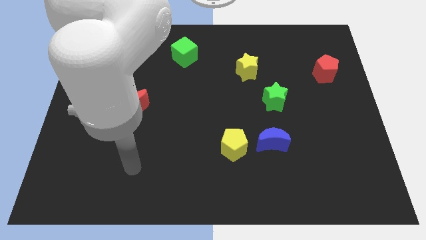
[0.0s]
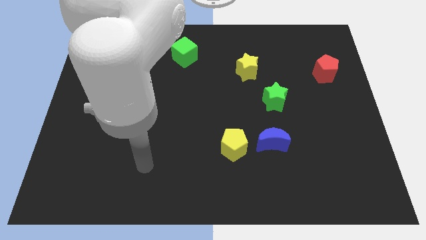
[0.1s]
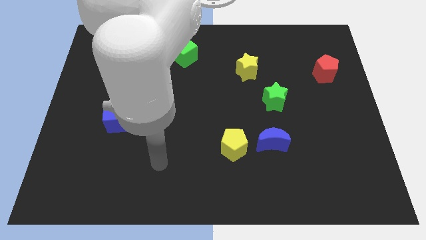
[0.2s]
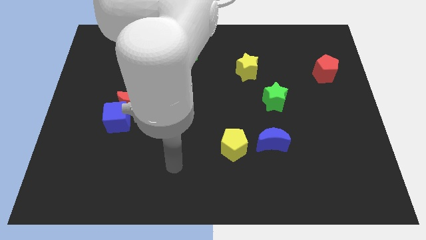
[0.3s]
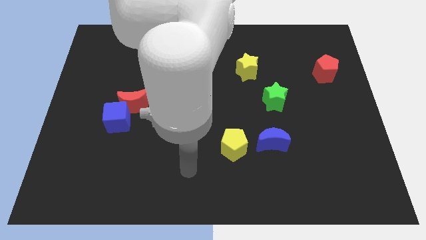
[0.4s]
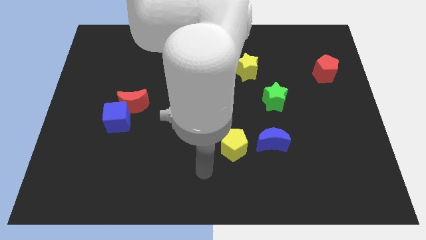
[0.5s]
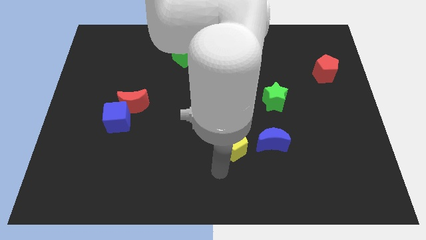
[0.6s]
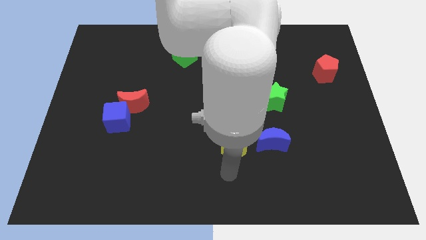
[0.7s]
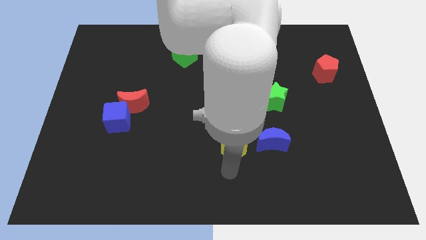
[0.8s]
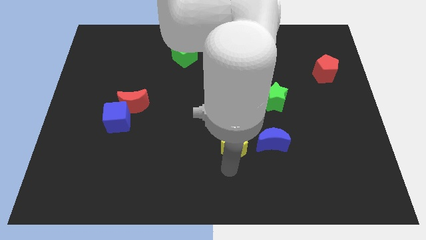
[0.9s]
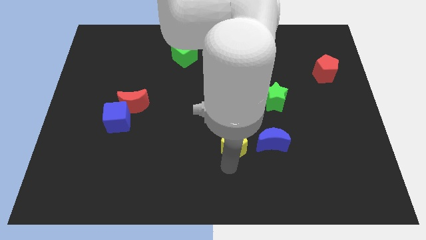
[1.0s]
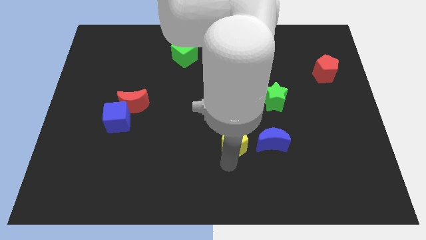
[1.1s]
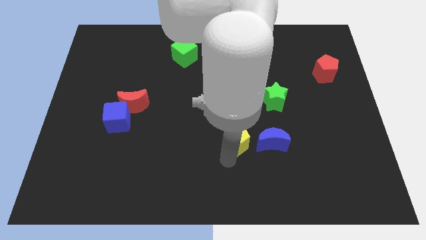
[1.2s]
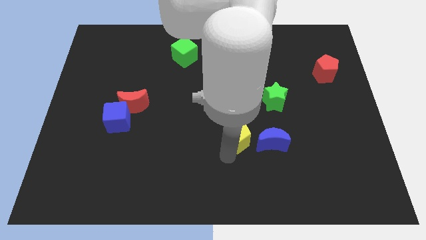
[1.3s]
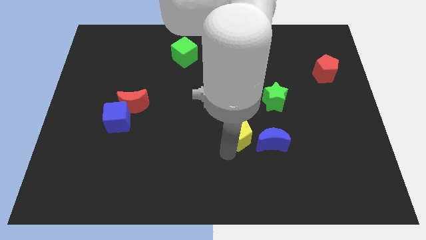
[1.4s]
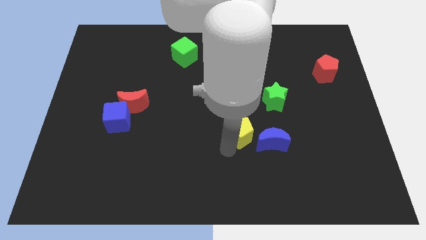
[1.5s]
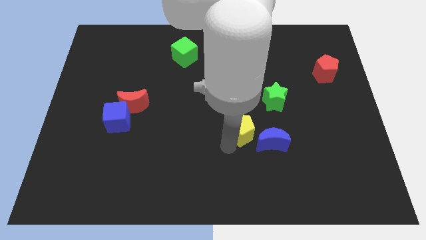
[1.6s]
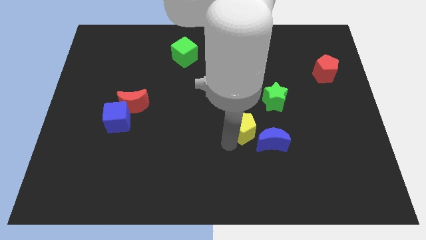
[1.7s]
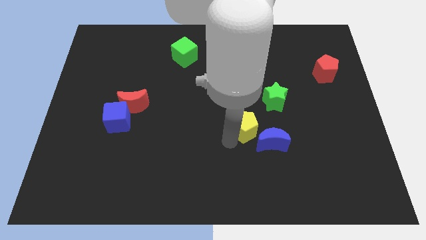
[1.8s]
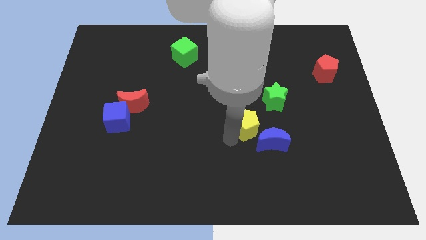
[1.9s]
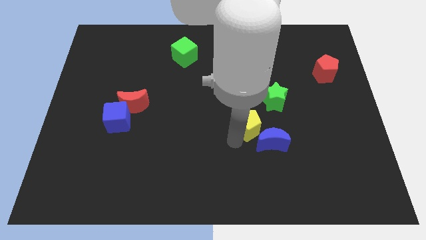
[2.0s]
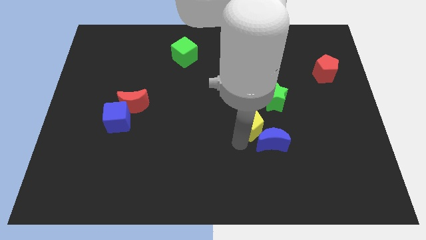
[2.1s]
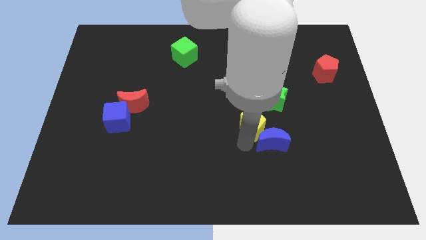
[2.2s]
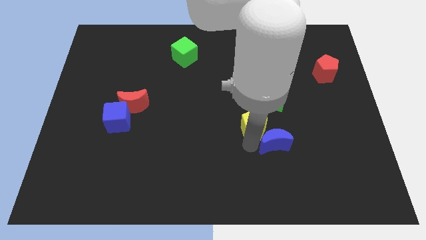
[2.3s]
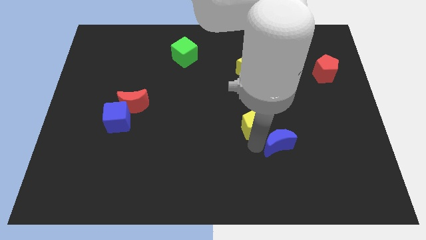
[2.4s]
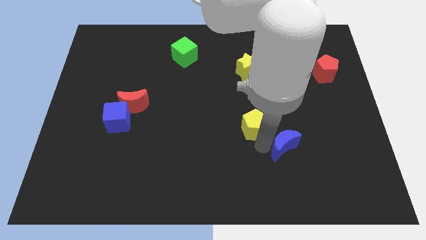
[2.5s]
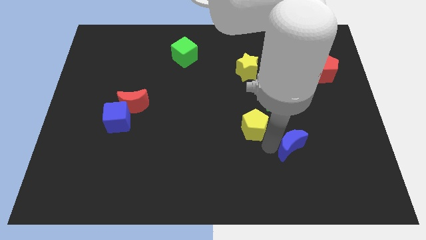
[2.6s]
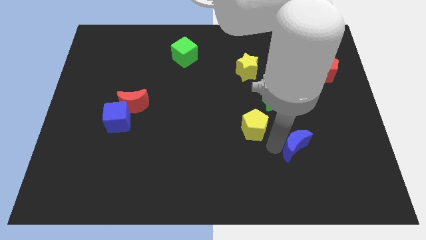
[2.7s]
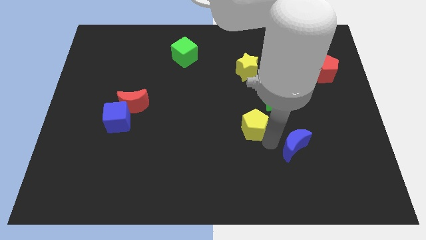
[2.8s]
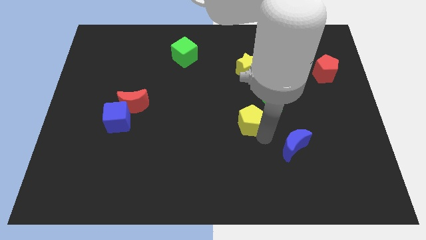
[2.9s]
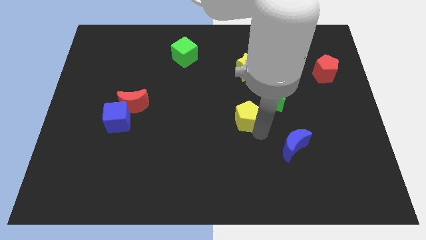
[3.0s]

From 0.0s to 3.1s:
move the yellow pentagon somewhat upwards

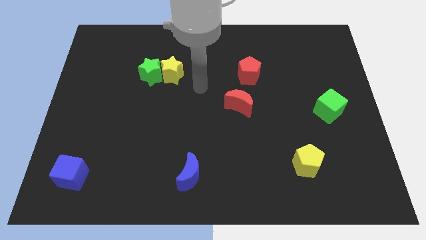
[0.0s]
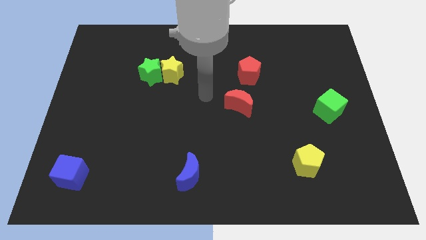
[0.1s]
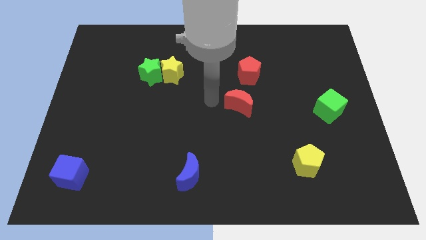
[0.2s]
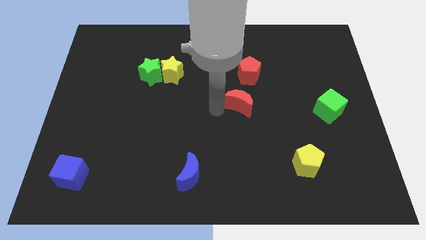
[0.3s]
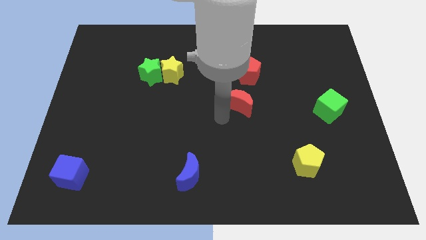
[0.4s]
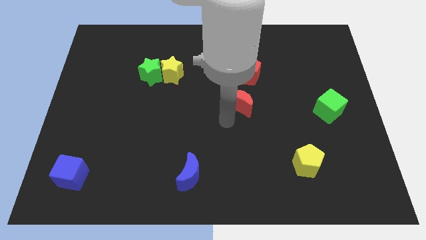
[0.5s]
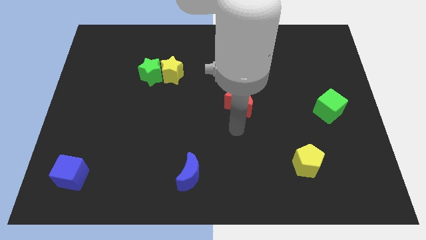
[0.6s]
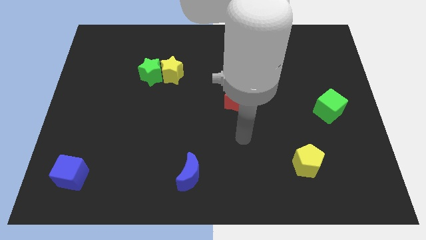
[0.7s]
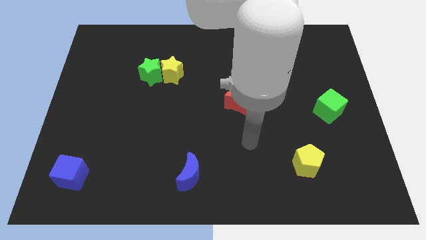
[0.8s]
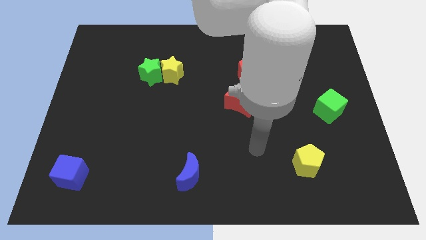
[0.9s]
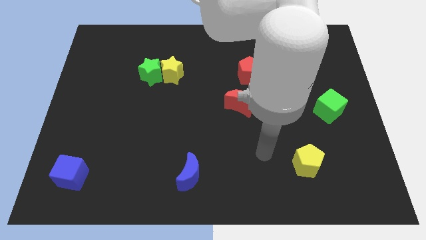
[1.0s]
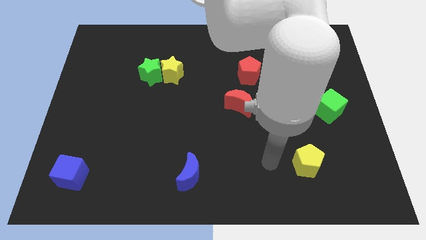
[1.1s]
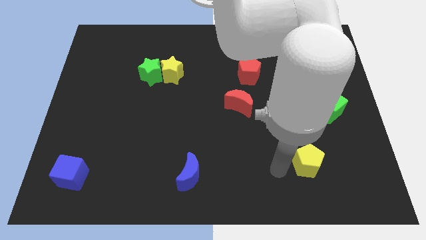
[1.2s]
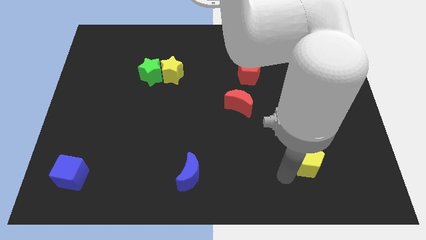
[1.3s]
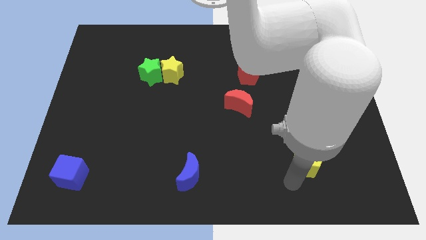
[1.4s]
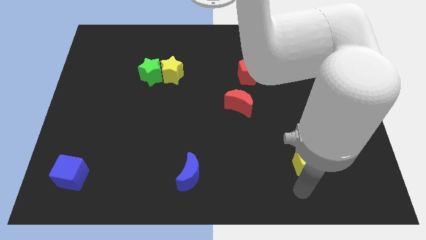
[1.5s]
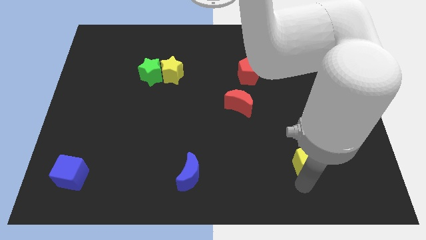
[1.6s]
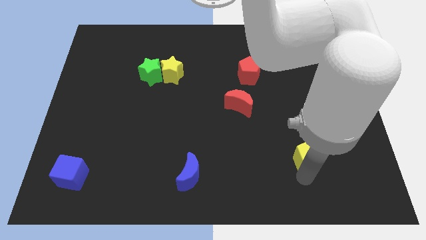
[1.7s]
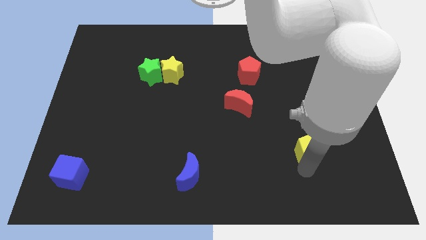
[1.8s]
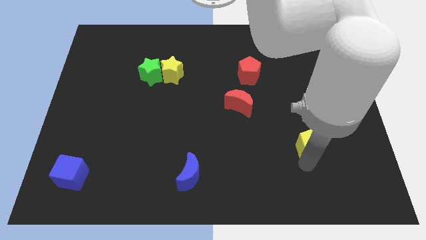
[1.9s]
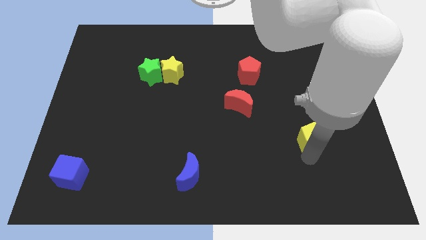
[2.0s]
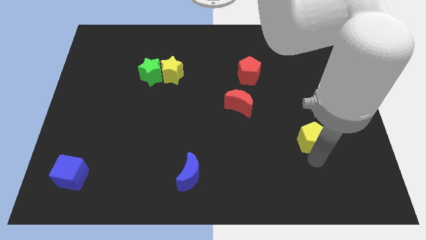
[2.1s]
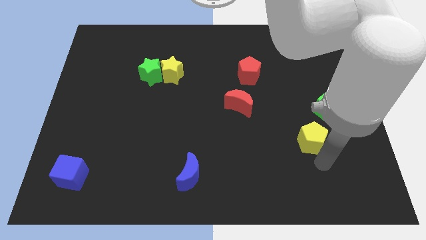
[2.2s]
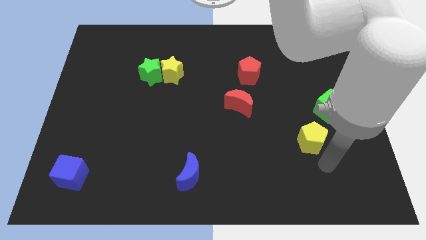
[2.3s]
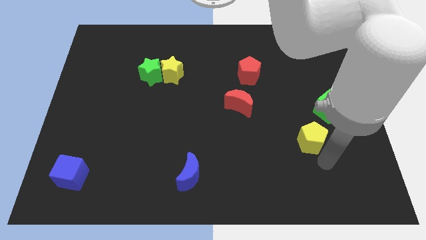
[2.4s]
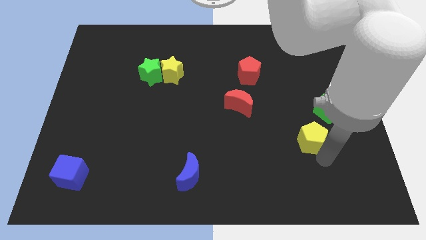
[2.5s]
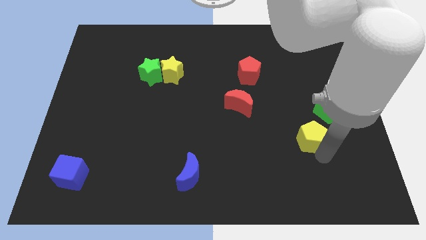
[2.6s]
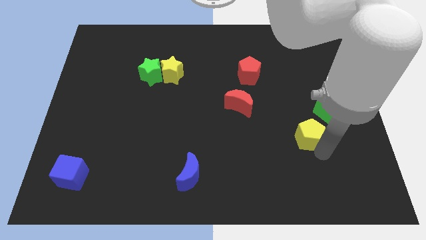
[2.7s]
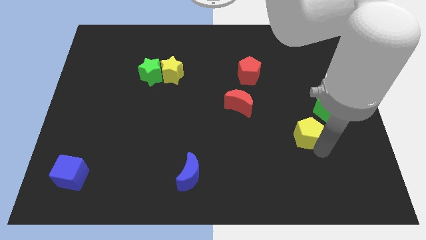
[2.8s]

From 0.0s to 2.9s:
push the yellow pentagon a little bit upwards

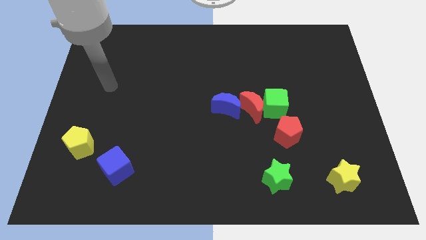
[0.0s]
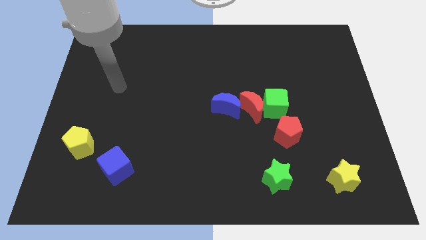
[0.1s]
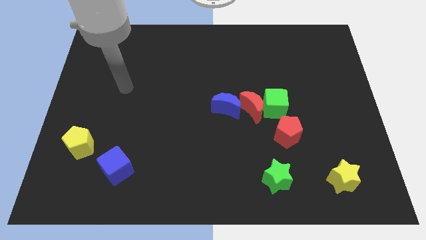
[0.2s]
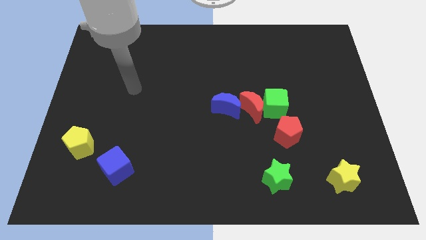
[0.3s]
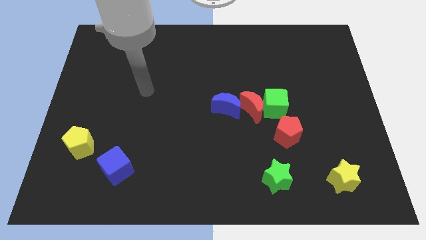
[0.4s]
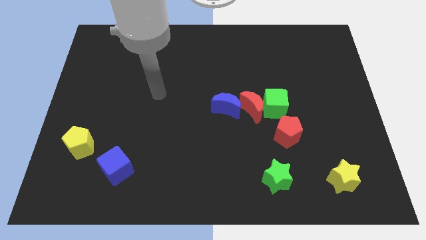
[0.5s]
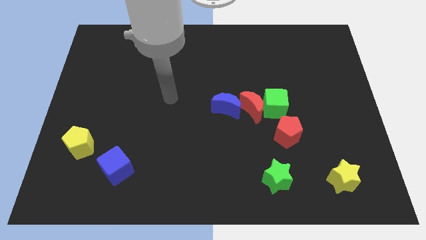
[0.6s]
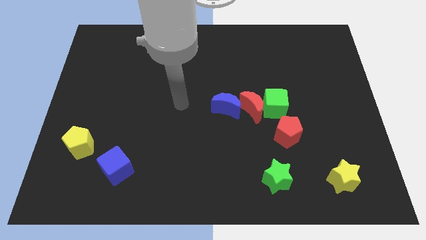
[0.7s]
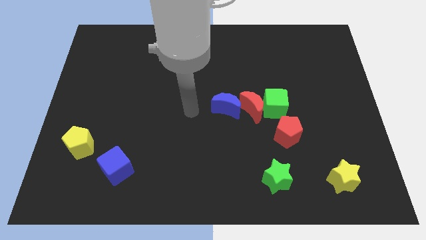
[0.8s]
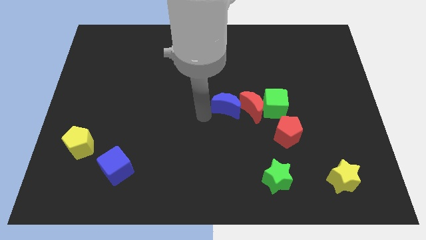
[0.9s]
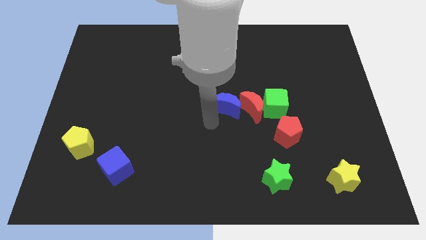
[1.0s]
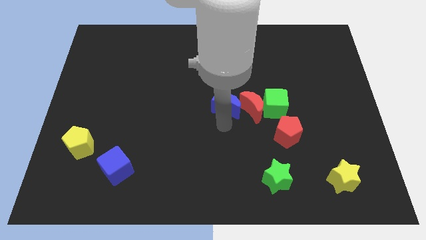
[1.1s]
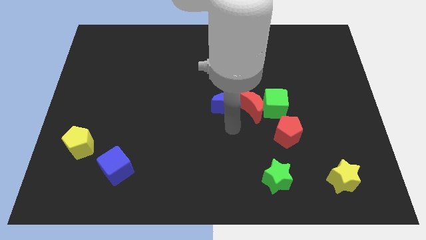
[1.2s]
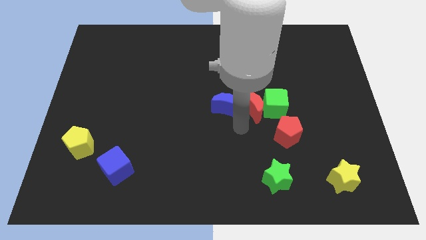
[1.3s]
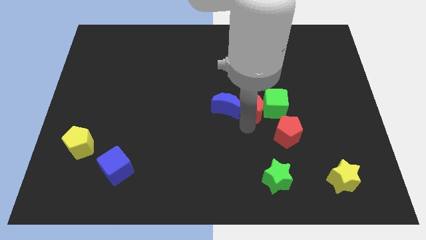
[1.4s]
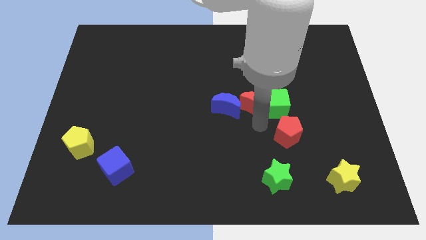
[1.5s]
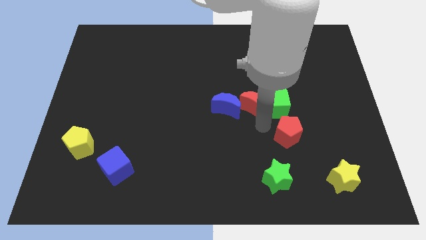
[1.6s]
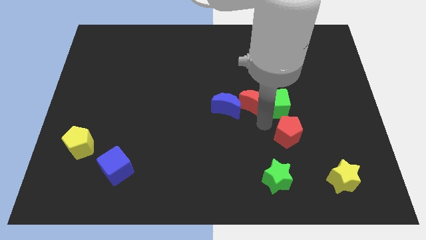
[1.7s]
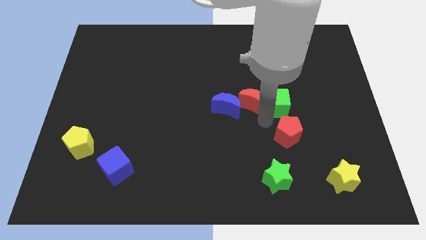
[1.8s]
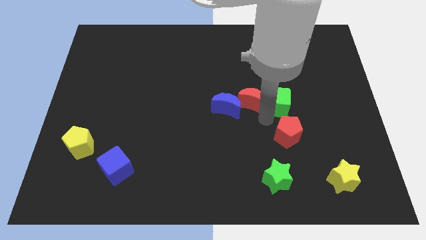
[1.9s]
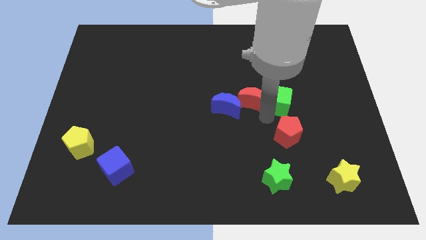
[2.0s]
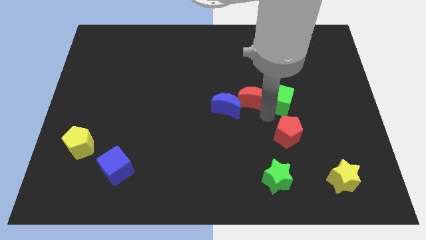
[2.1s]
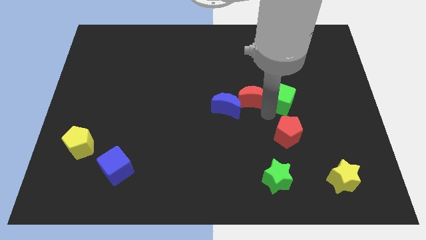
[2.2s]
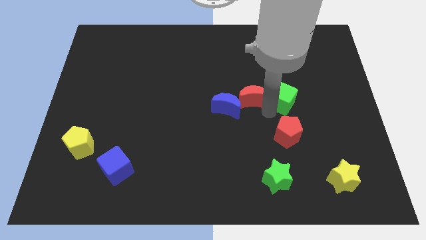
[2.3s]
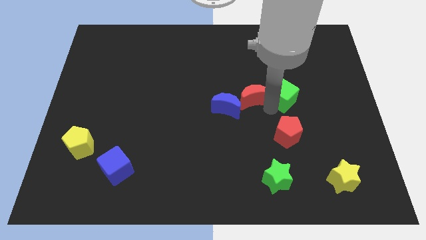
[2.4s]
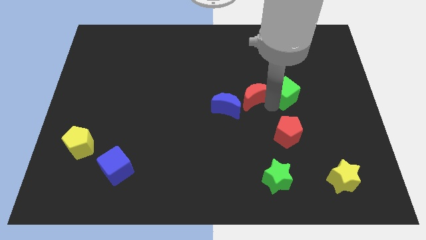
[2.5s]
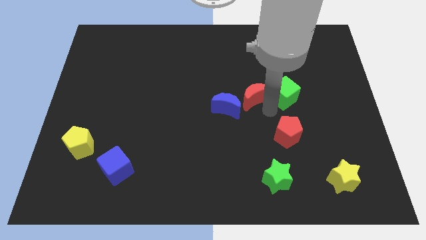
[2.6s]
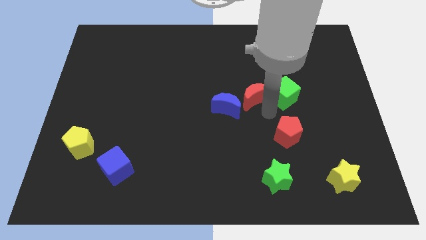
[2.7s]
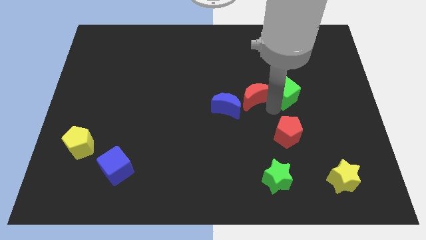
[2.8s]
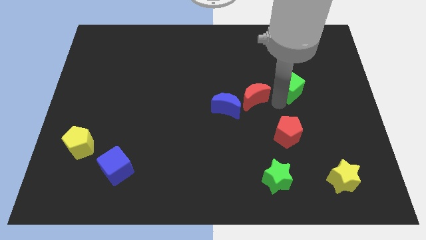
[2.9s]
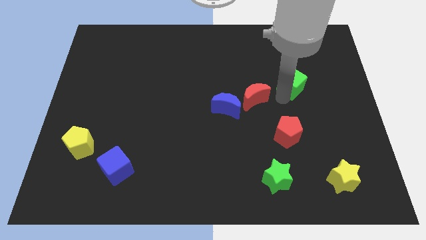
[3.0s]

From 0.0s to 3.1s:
slightly slide the green cube up and to the right diagonally
